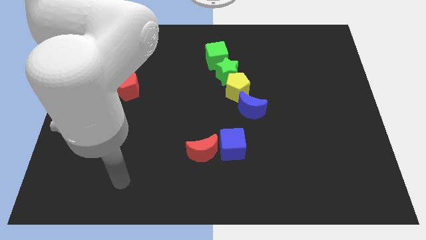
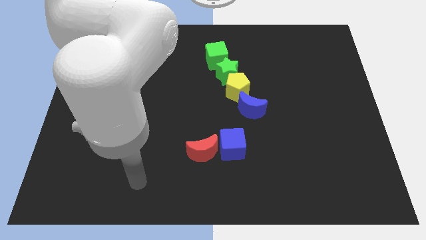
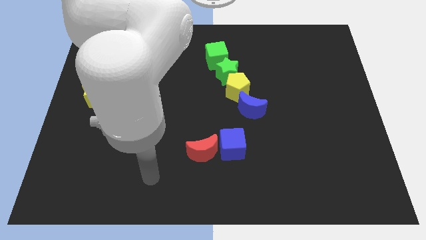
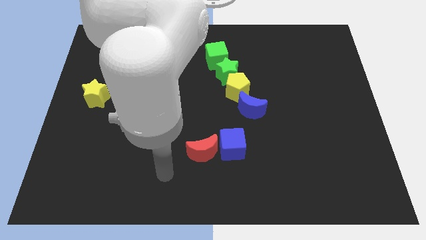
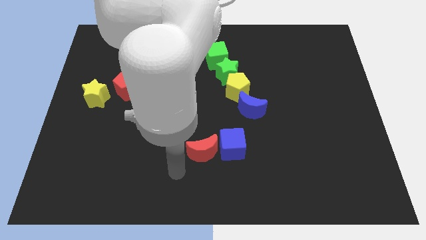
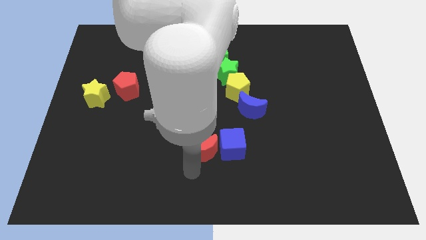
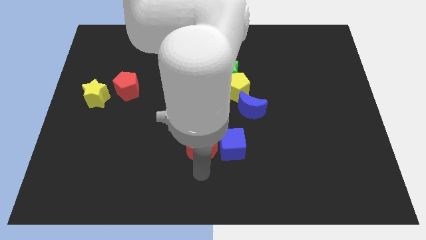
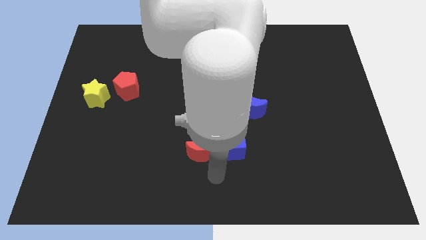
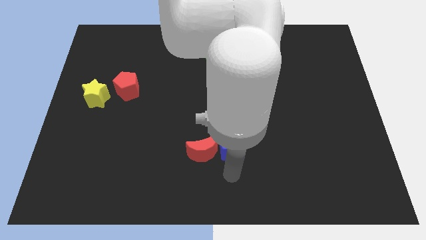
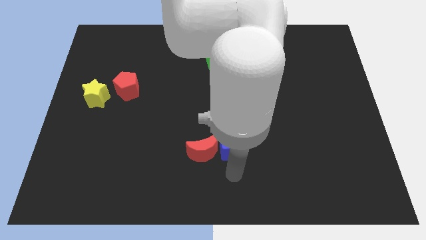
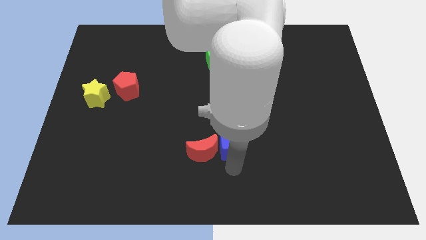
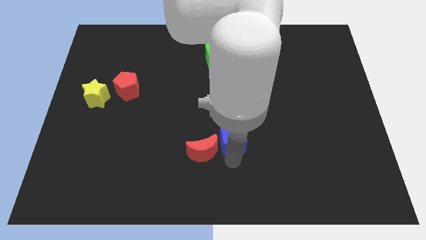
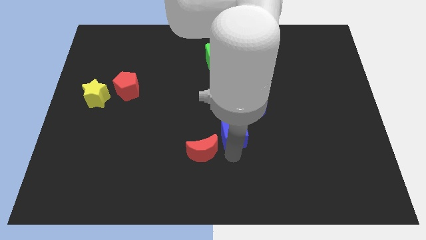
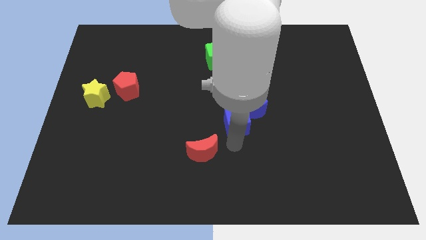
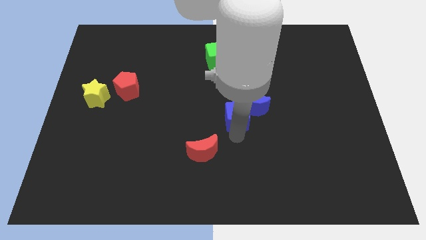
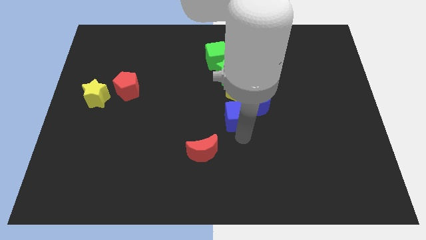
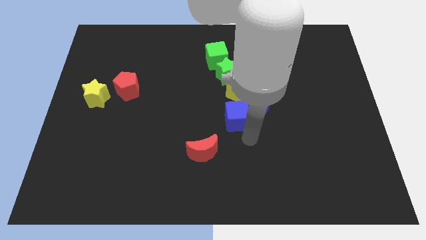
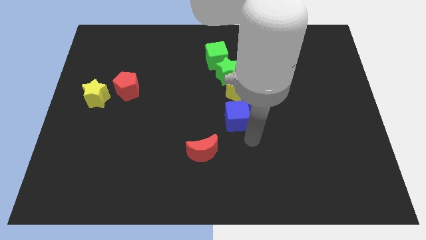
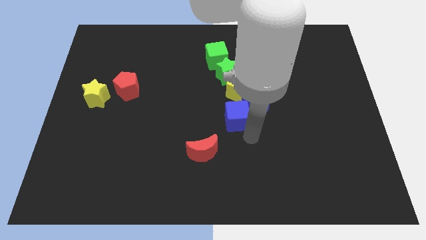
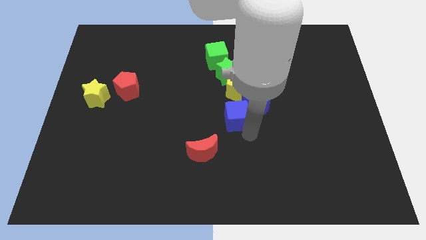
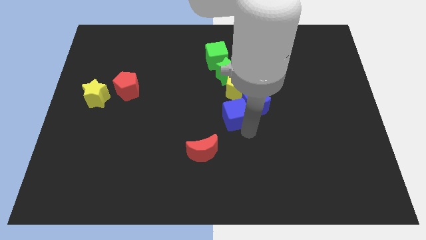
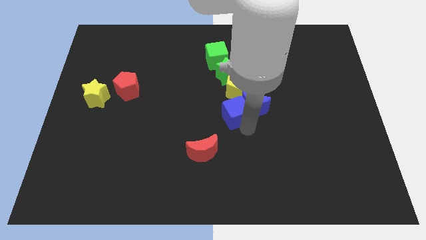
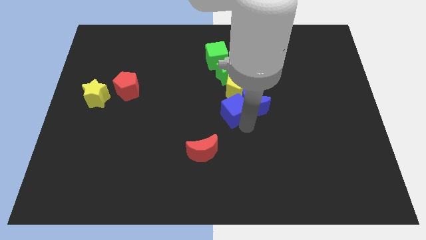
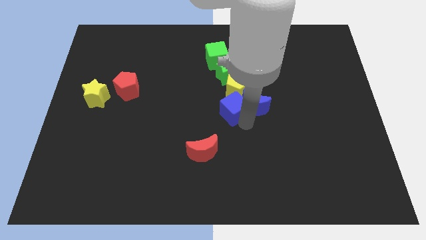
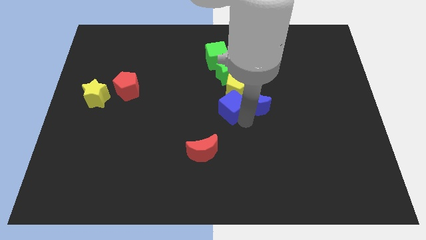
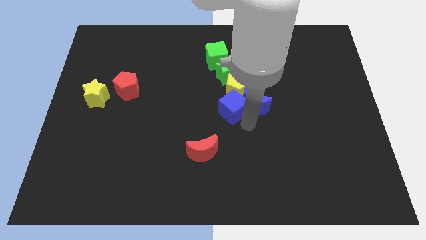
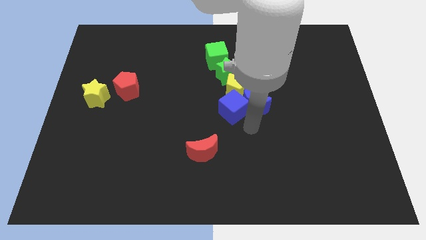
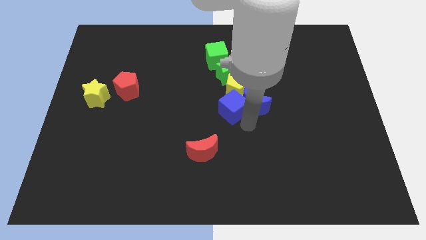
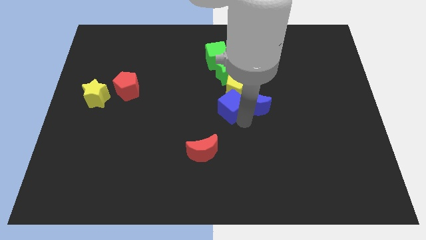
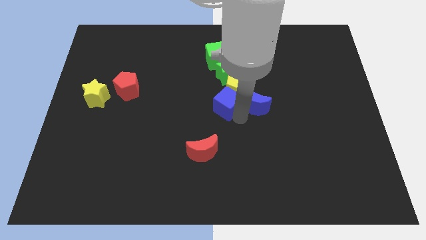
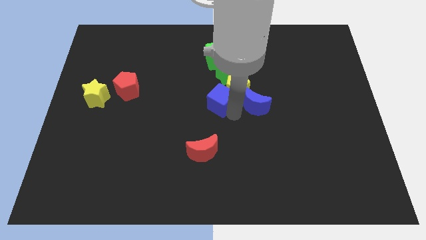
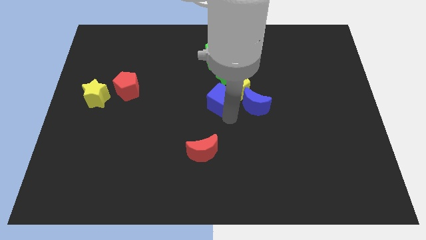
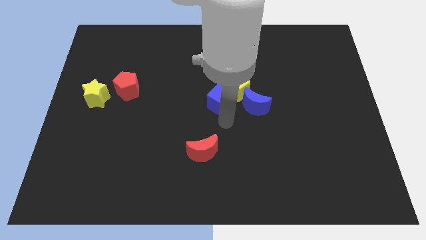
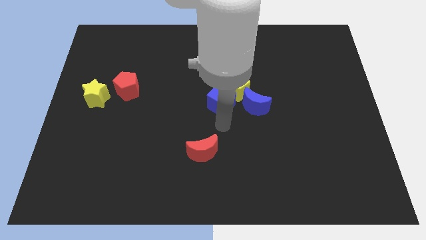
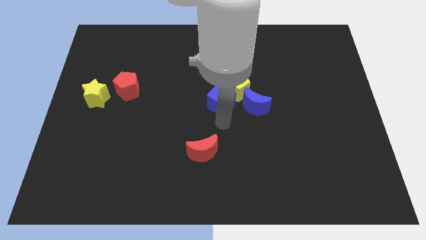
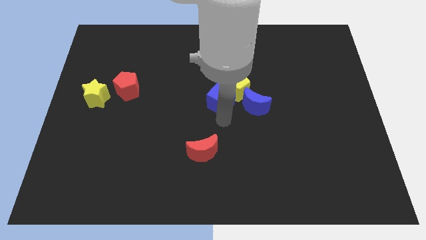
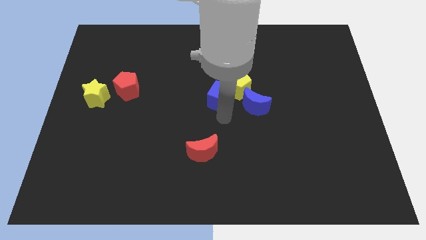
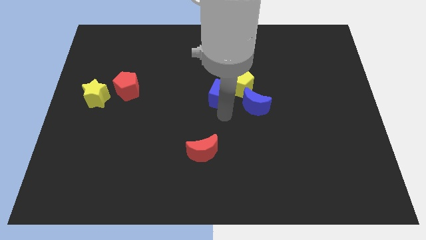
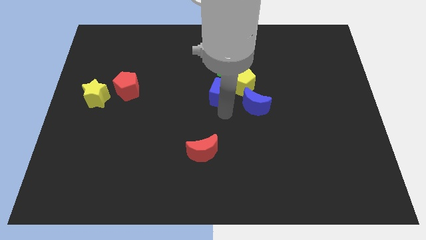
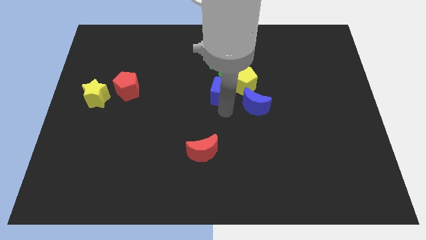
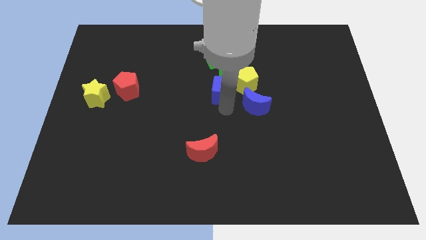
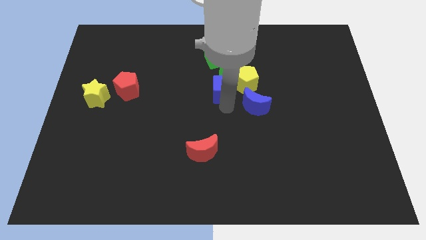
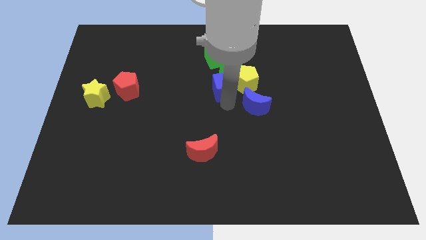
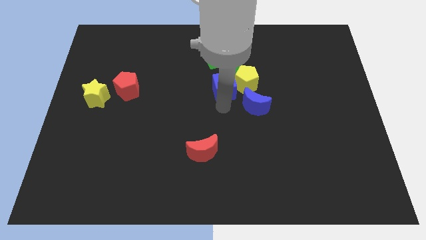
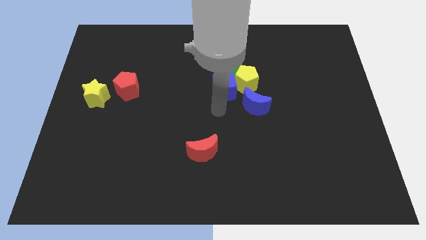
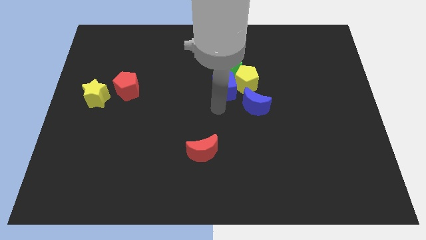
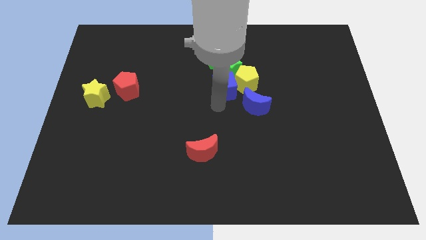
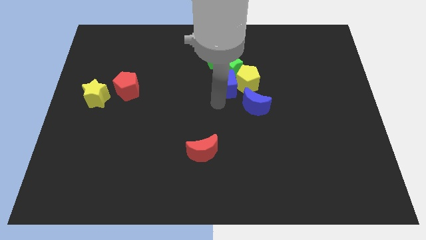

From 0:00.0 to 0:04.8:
put the blue cube next to the green star

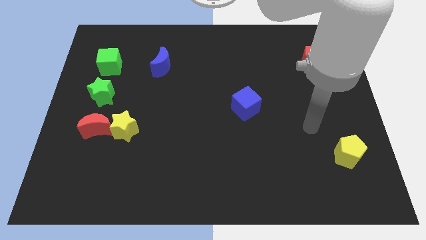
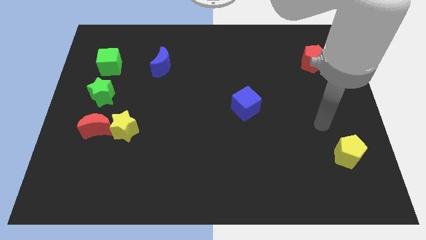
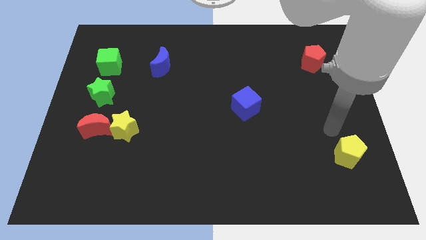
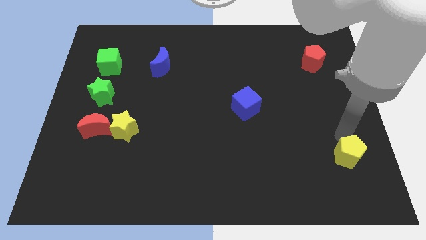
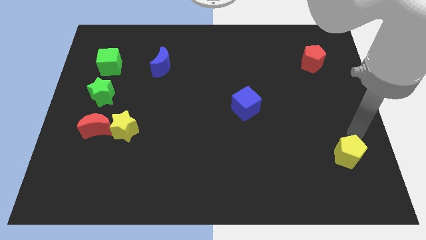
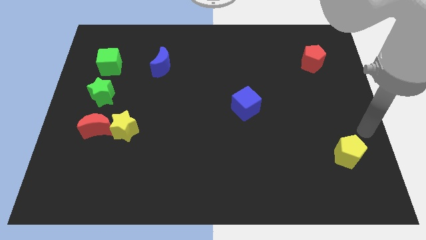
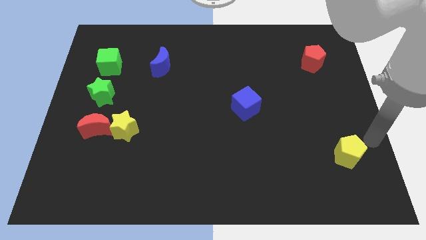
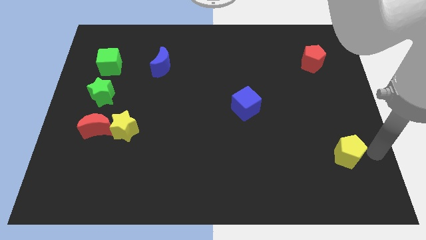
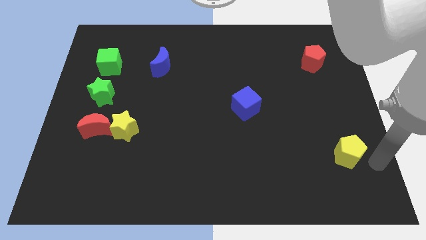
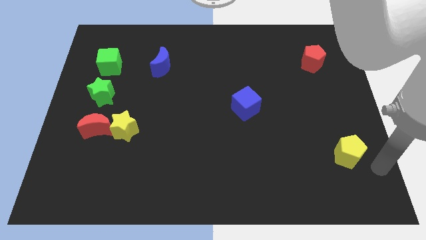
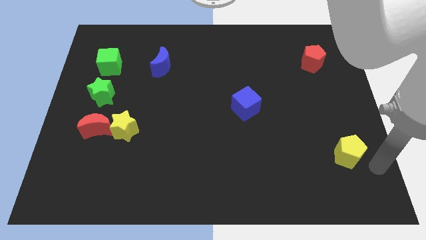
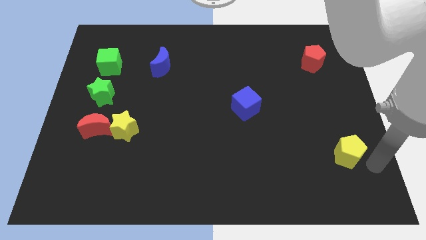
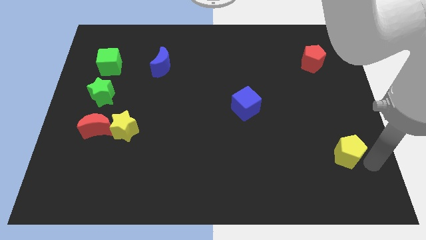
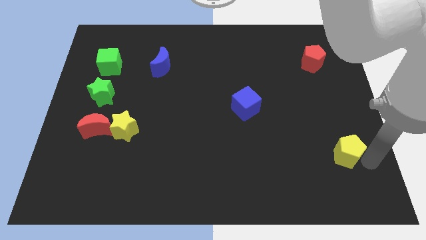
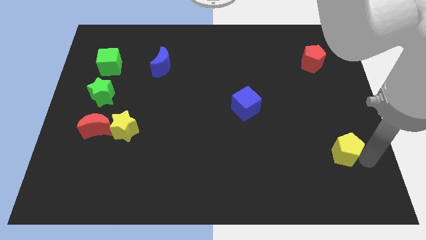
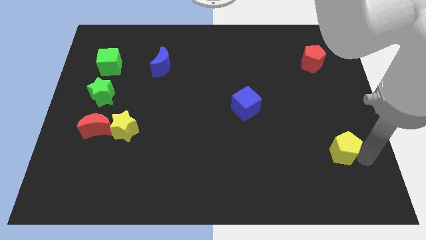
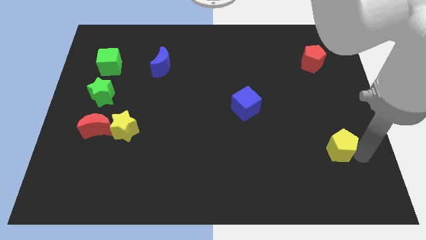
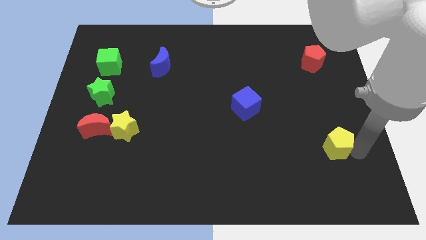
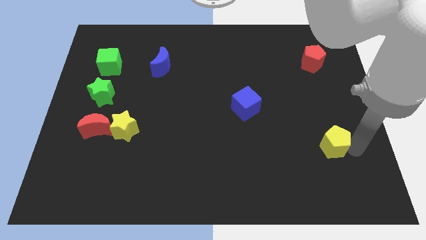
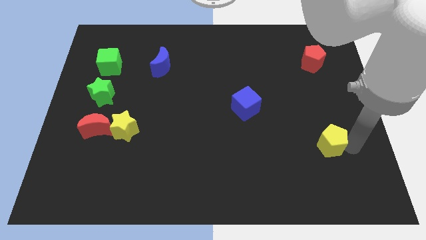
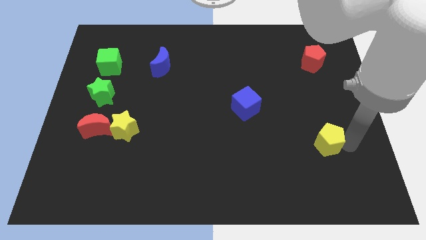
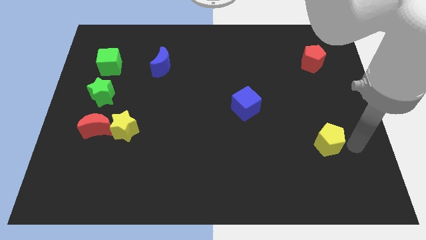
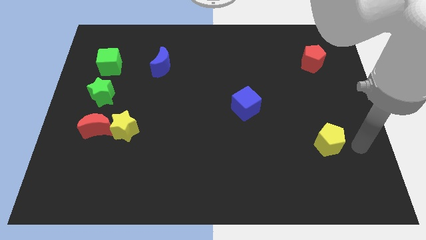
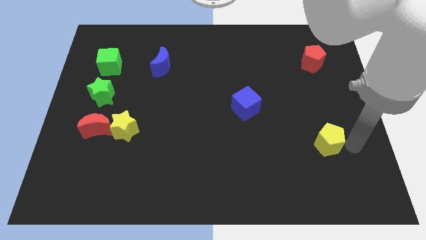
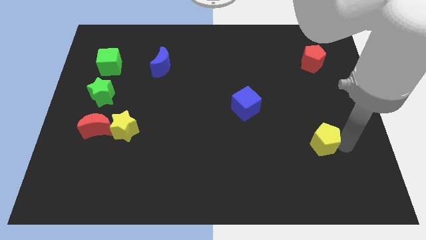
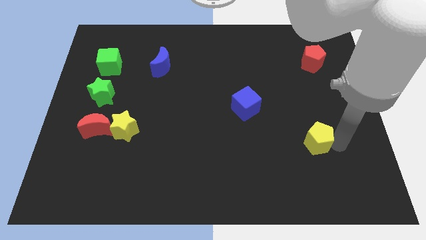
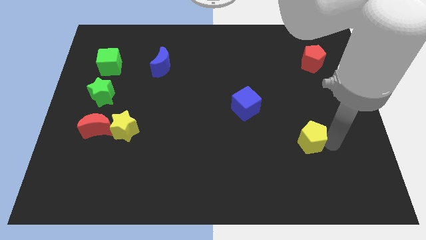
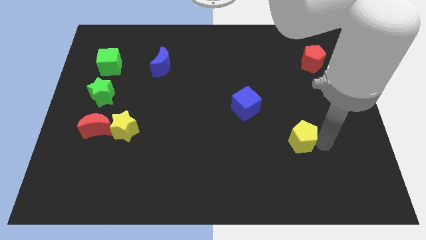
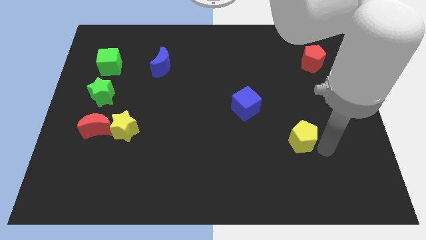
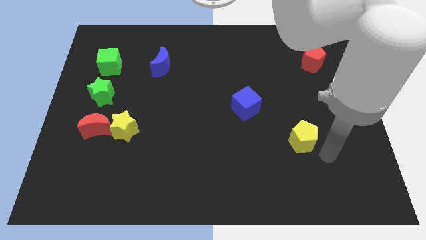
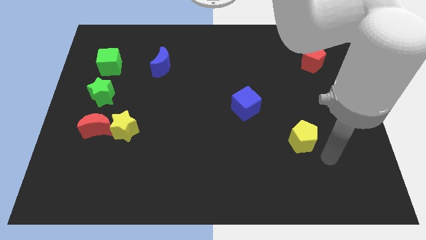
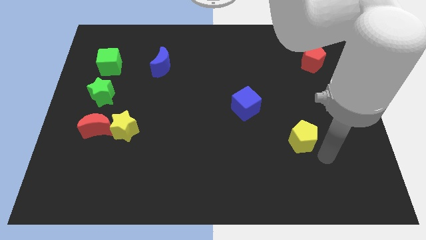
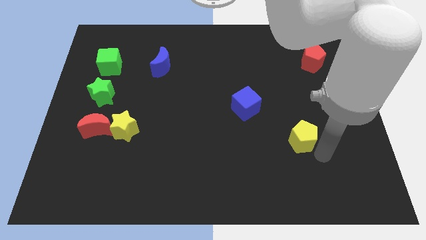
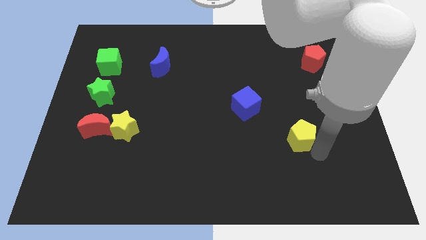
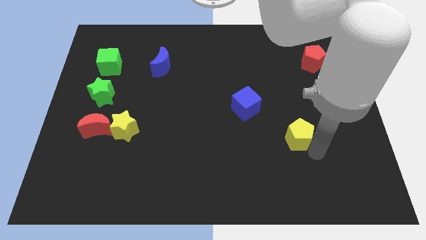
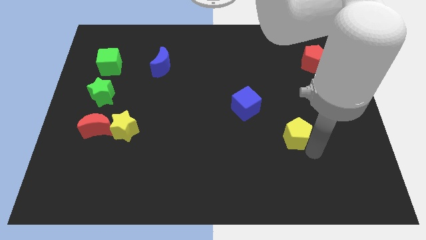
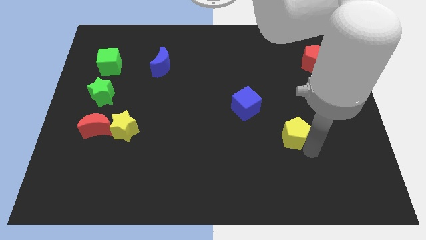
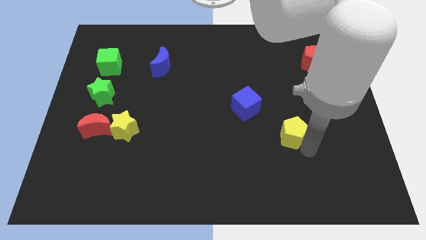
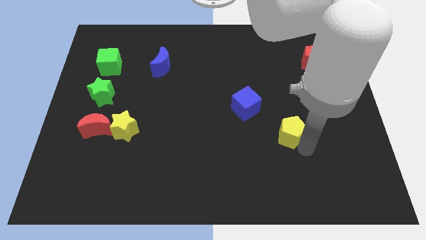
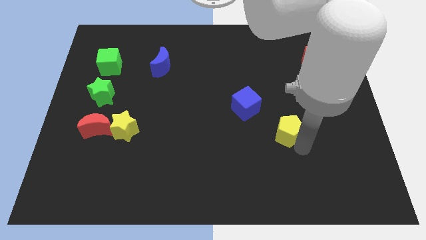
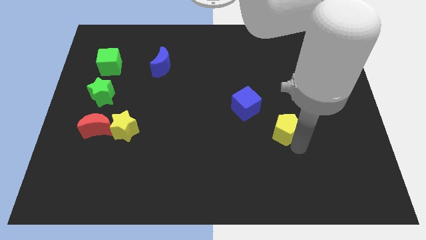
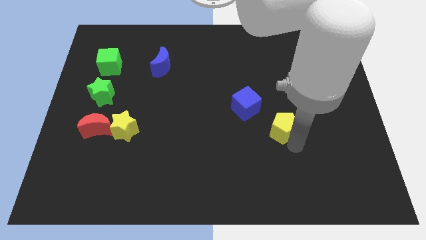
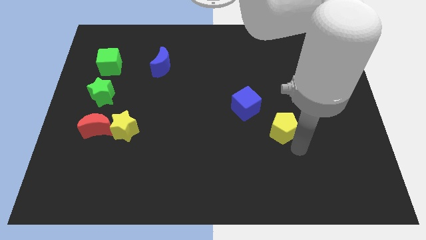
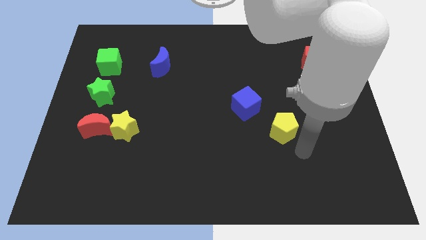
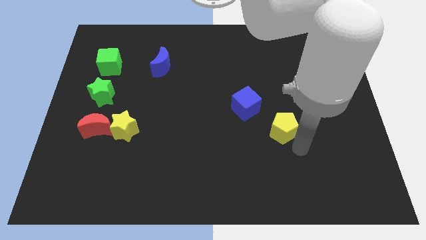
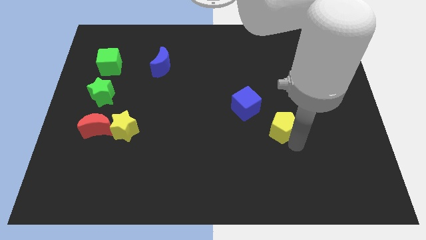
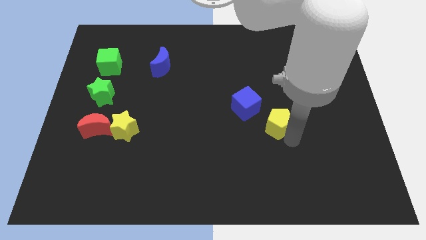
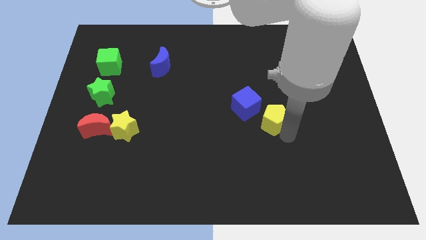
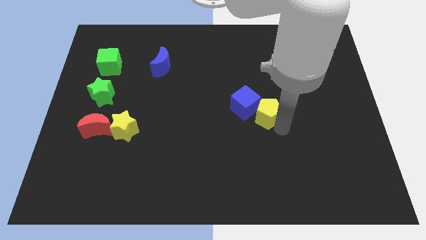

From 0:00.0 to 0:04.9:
push the yellow pentagon towards the blue cube
